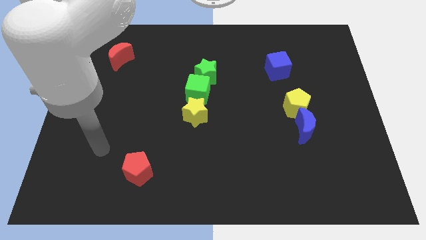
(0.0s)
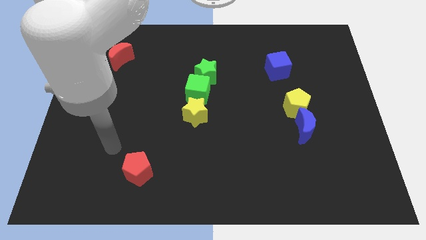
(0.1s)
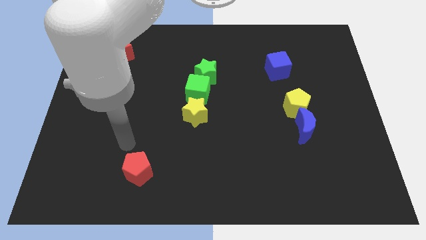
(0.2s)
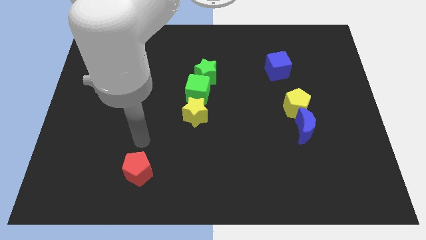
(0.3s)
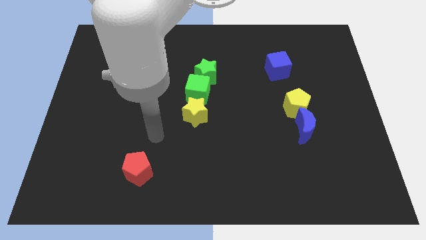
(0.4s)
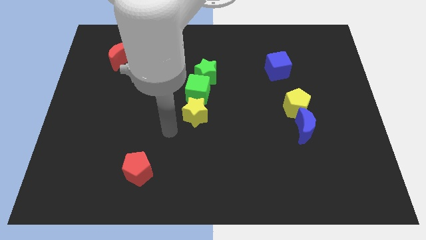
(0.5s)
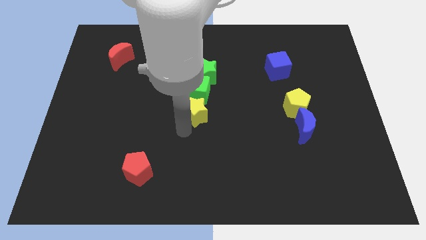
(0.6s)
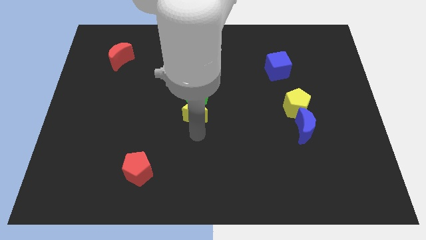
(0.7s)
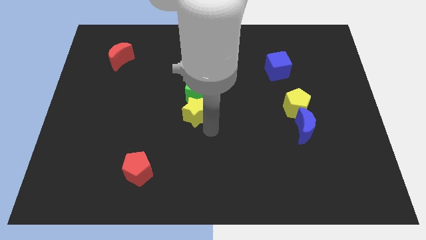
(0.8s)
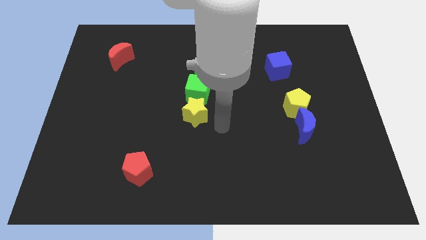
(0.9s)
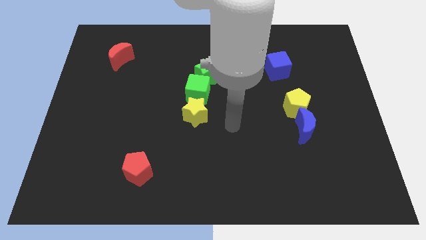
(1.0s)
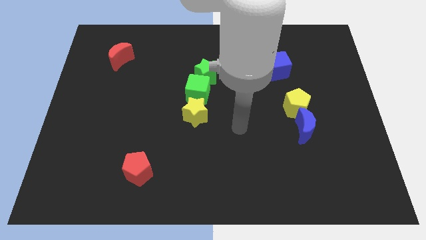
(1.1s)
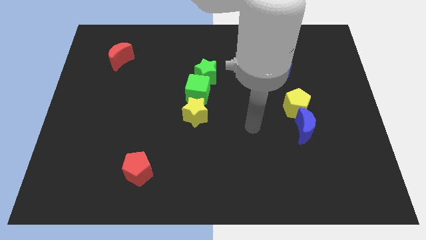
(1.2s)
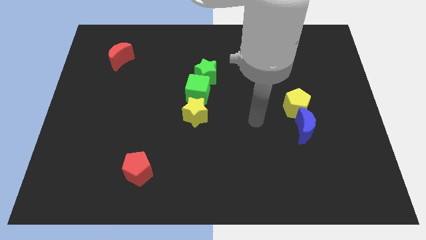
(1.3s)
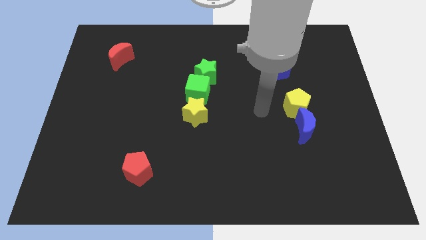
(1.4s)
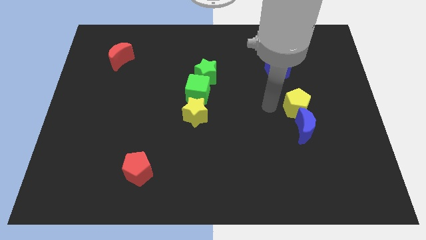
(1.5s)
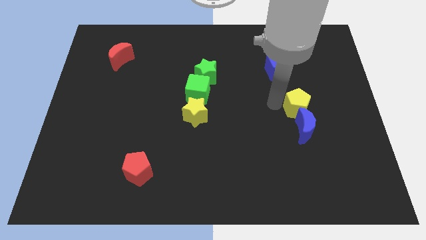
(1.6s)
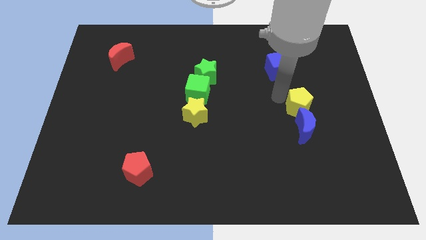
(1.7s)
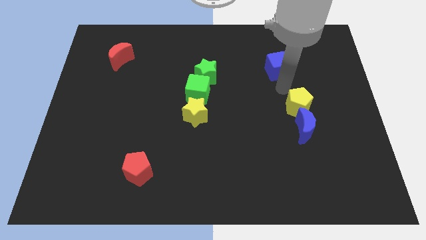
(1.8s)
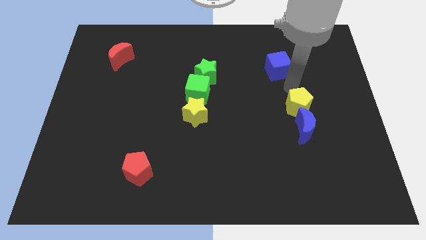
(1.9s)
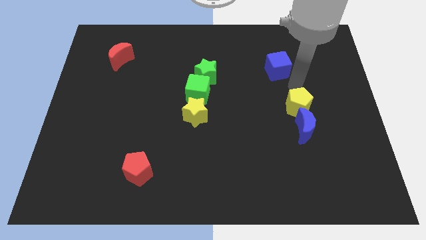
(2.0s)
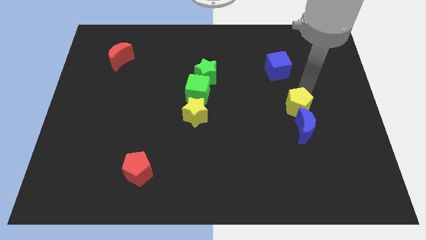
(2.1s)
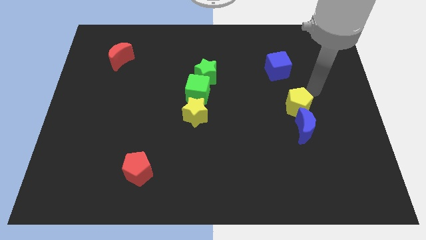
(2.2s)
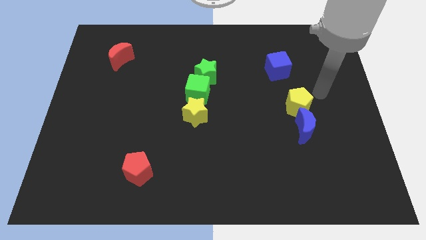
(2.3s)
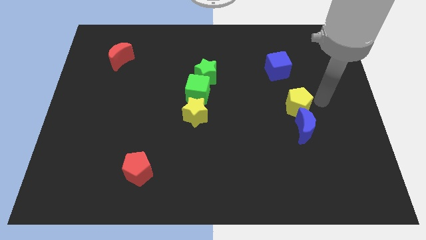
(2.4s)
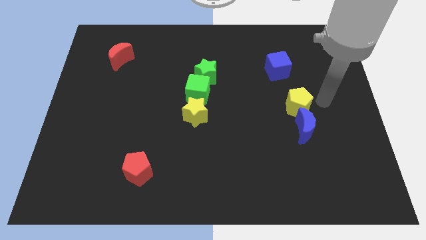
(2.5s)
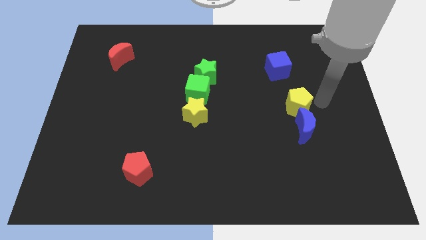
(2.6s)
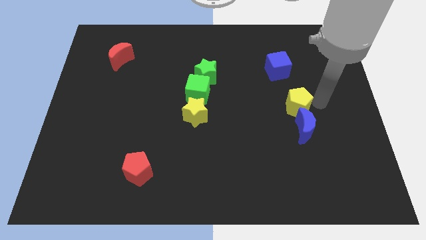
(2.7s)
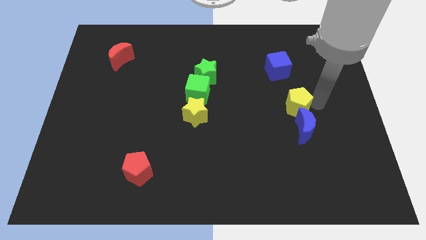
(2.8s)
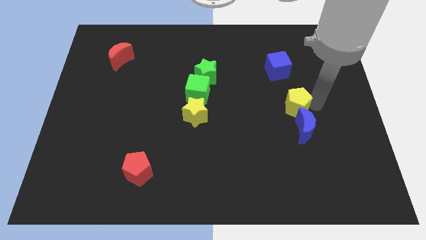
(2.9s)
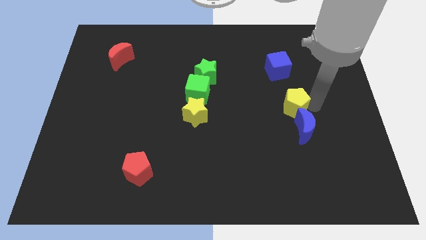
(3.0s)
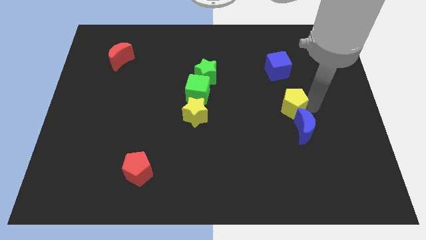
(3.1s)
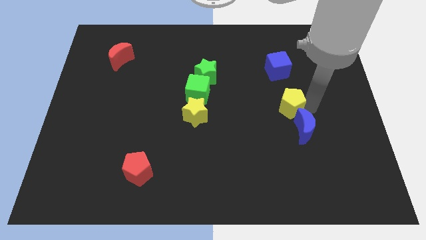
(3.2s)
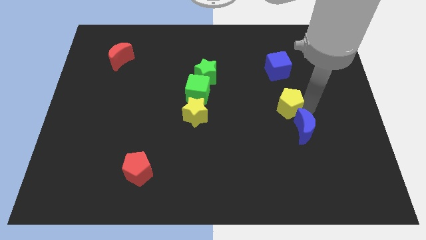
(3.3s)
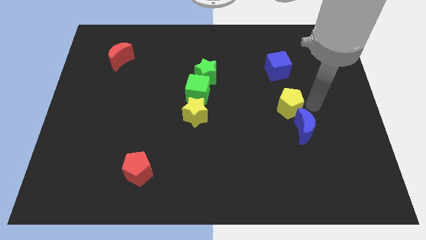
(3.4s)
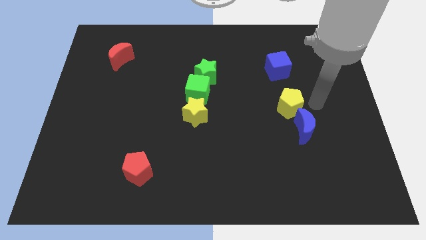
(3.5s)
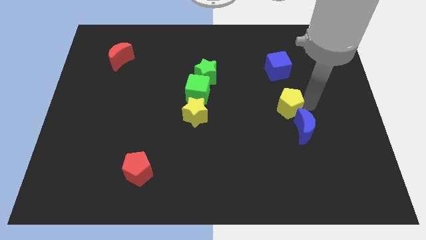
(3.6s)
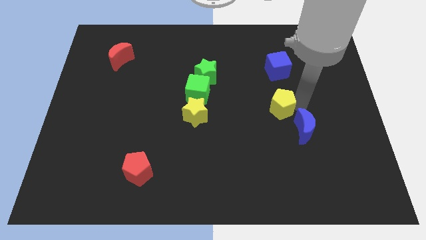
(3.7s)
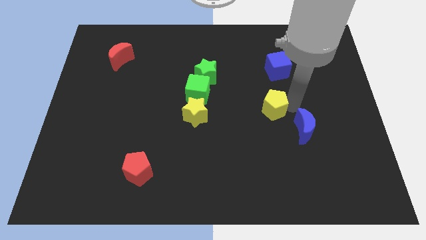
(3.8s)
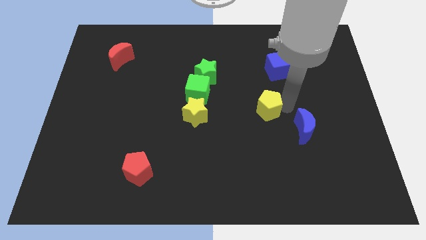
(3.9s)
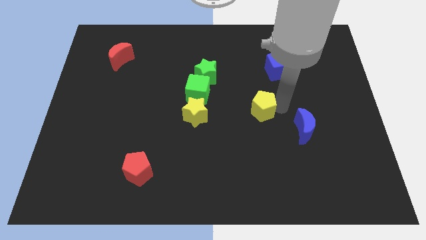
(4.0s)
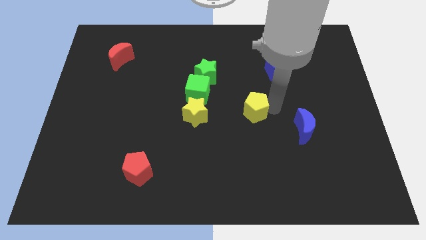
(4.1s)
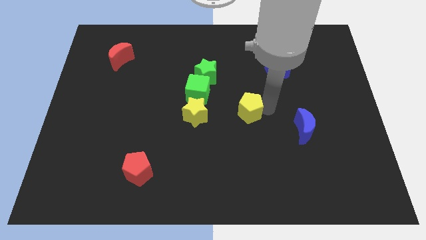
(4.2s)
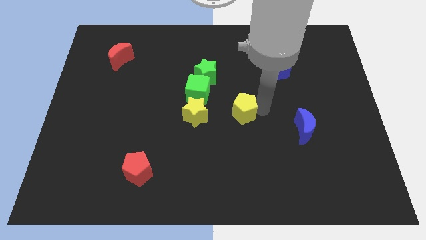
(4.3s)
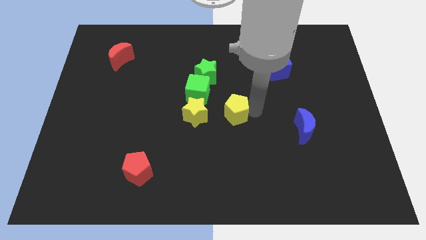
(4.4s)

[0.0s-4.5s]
put the yellow pentagon to the bottom right of the green cube

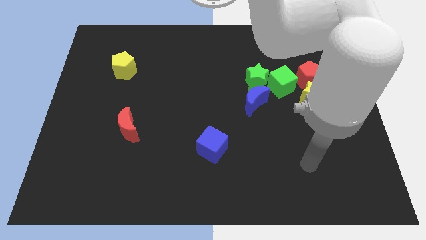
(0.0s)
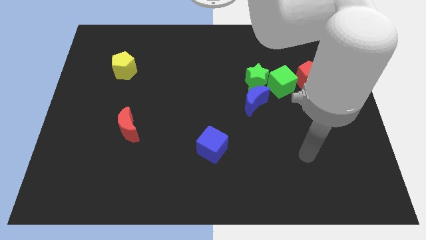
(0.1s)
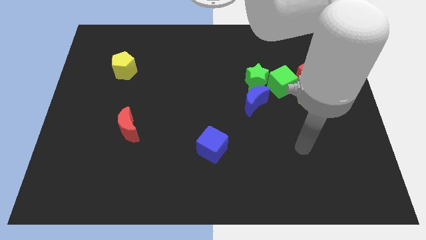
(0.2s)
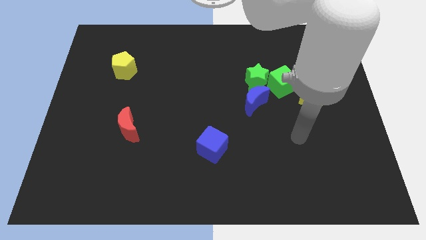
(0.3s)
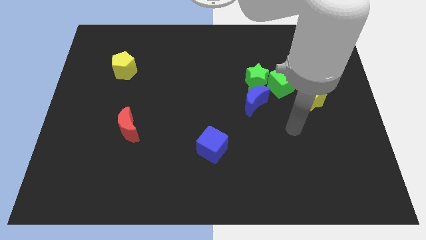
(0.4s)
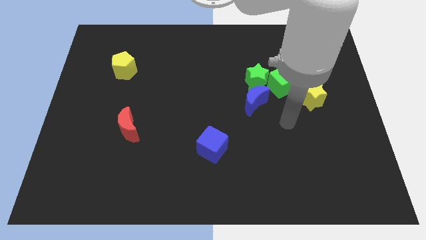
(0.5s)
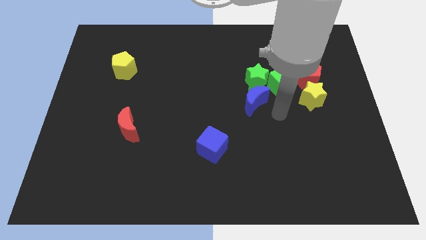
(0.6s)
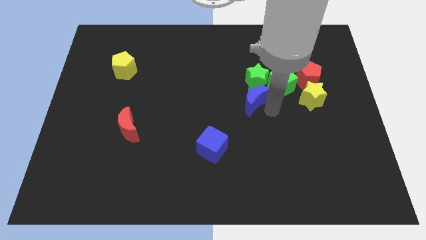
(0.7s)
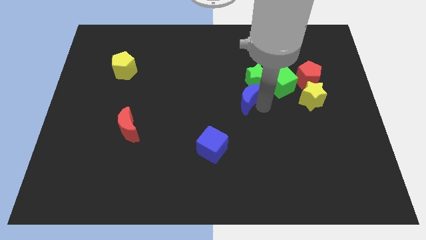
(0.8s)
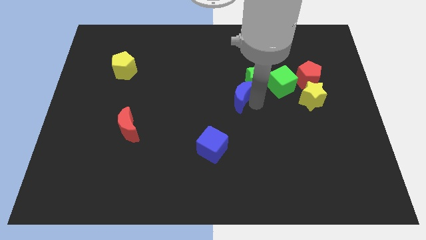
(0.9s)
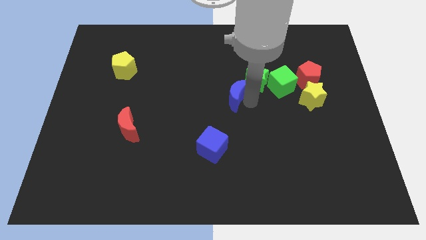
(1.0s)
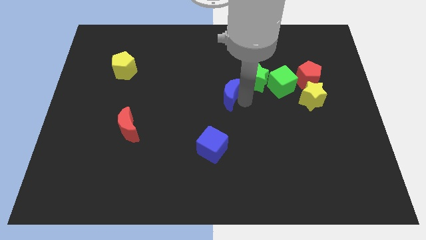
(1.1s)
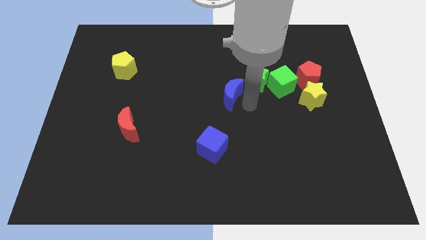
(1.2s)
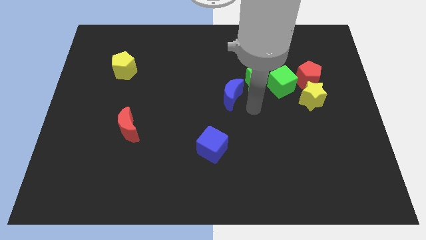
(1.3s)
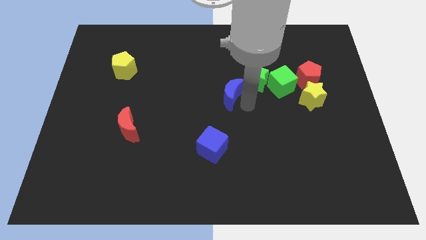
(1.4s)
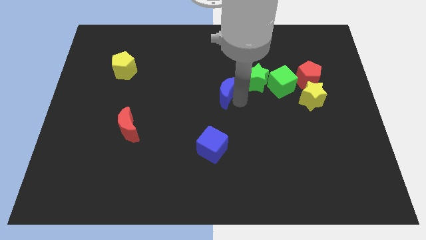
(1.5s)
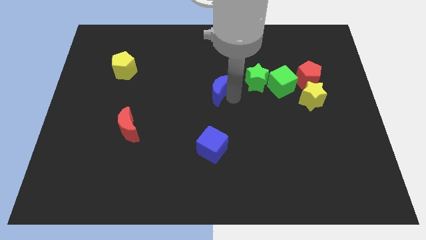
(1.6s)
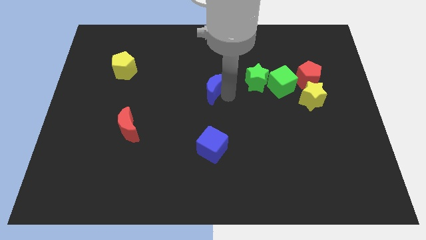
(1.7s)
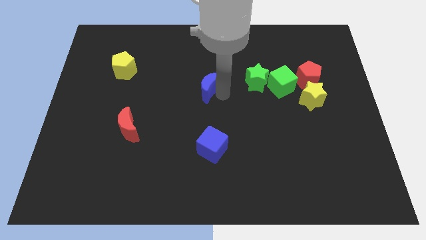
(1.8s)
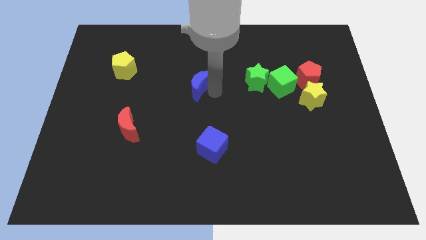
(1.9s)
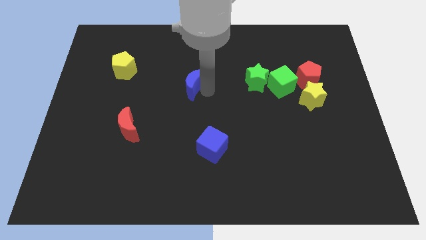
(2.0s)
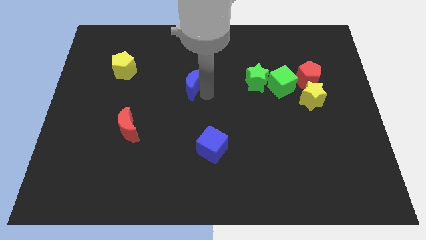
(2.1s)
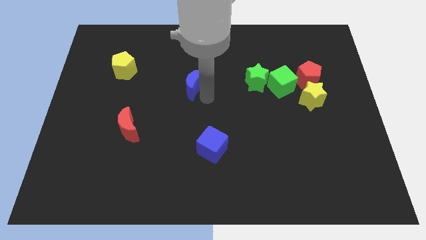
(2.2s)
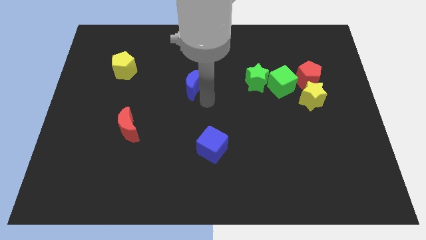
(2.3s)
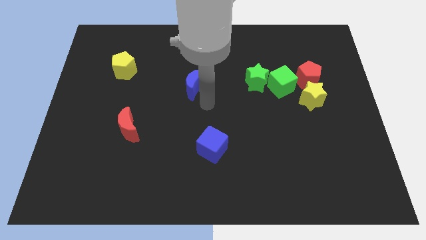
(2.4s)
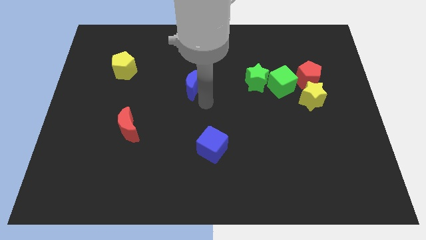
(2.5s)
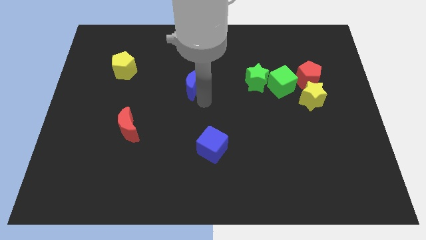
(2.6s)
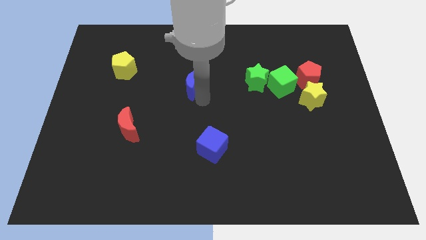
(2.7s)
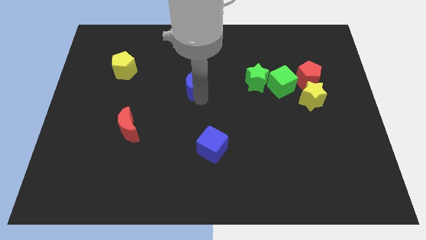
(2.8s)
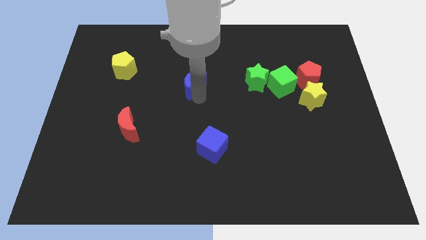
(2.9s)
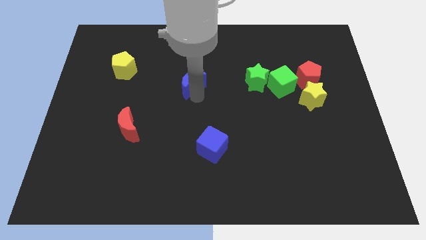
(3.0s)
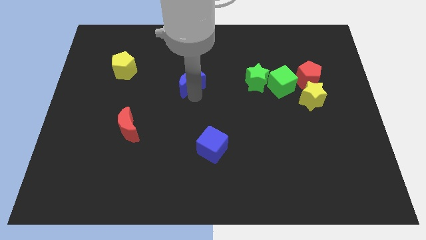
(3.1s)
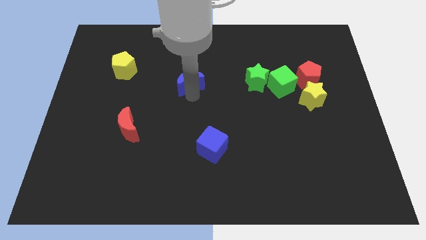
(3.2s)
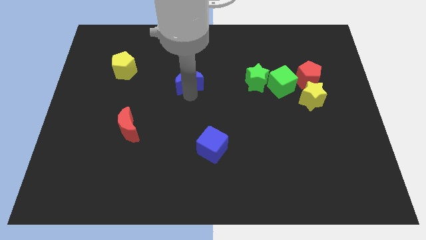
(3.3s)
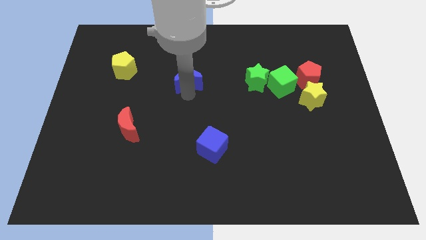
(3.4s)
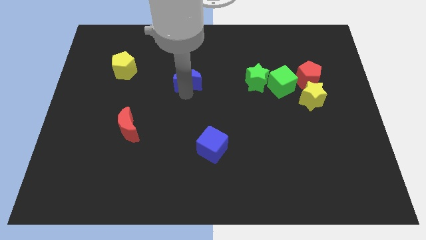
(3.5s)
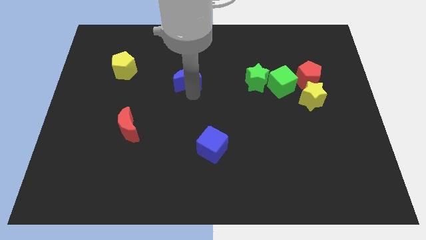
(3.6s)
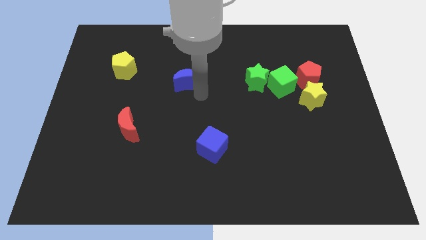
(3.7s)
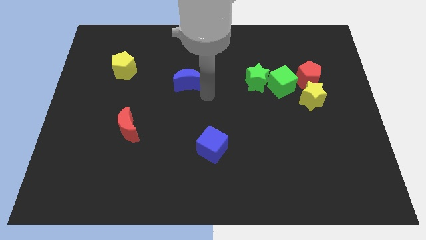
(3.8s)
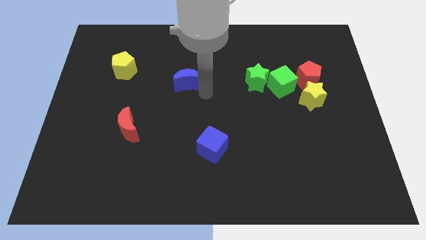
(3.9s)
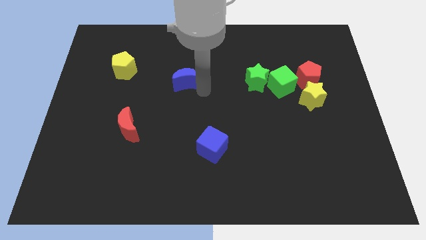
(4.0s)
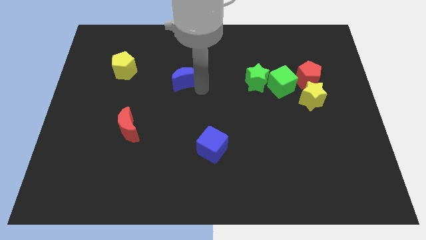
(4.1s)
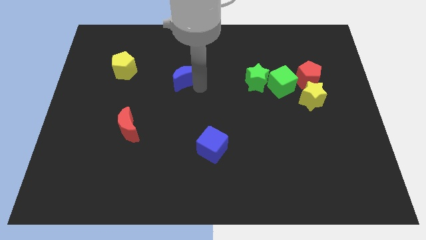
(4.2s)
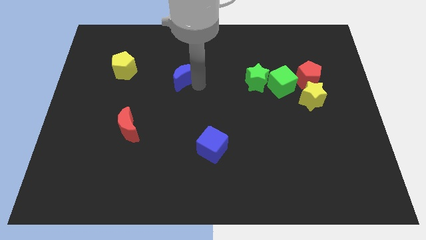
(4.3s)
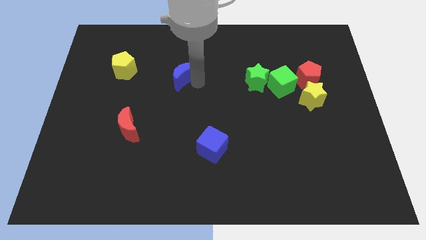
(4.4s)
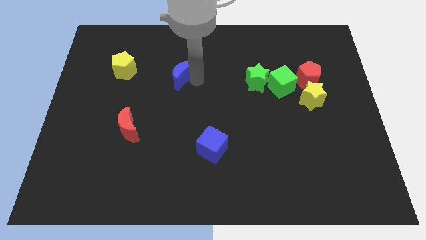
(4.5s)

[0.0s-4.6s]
slide the blue moon right of the yellow pentagon
